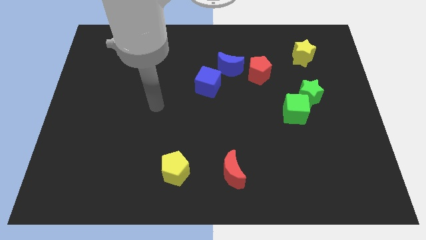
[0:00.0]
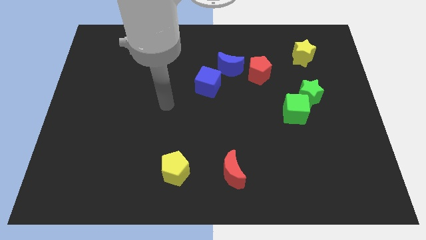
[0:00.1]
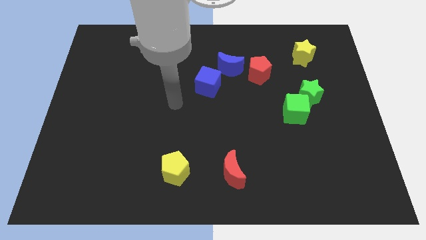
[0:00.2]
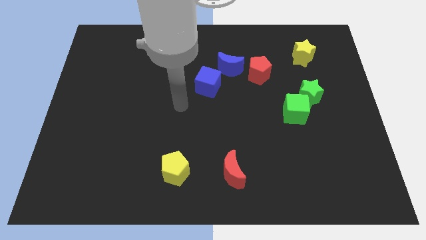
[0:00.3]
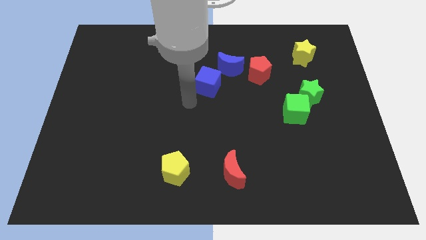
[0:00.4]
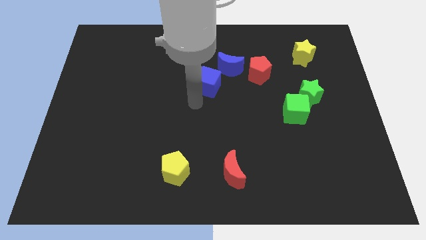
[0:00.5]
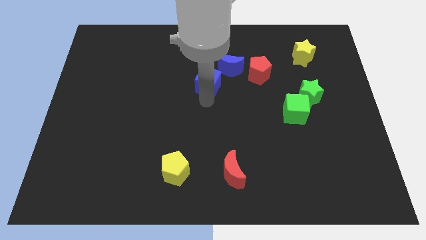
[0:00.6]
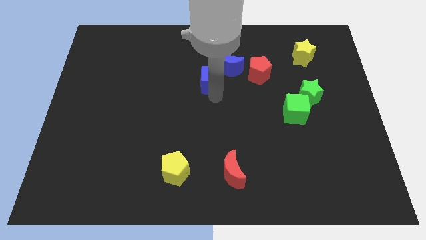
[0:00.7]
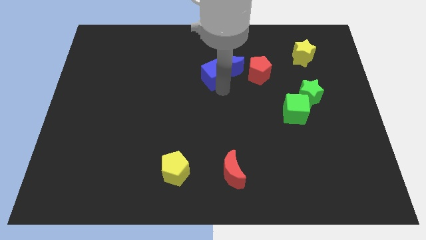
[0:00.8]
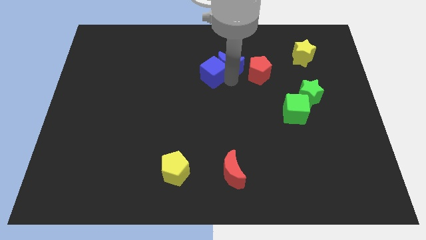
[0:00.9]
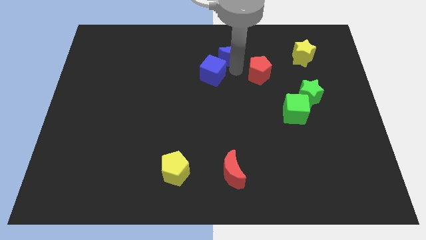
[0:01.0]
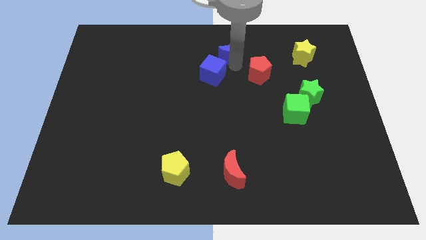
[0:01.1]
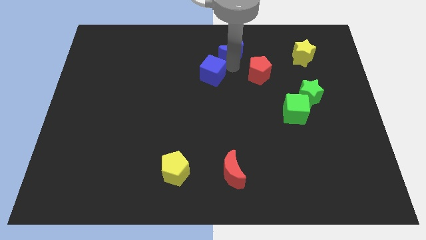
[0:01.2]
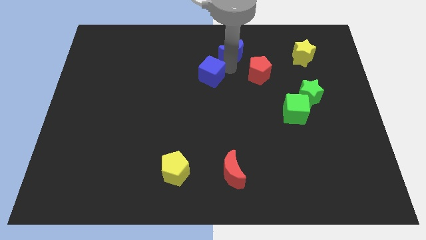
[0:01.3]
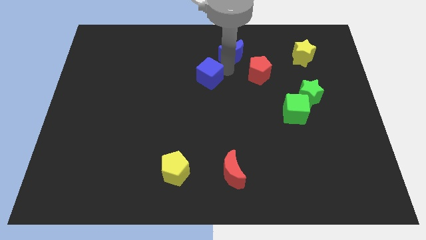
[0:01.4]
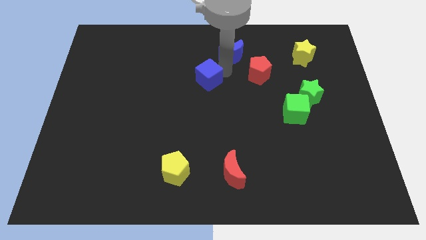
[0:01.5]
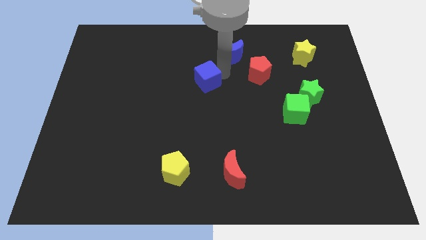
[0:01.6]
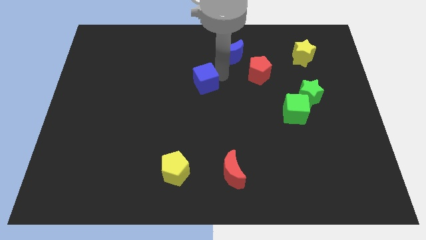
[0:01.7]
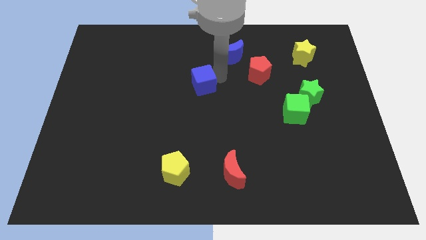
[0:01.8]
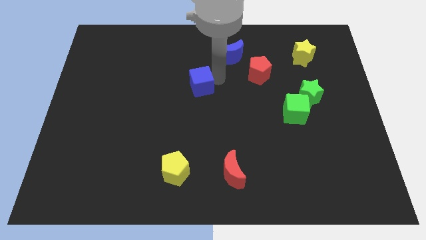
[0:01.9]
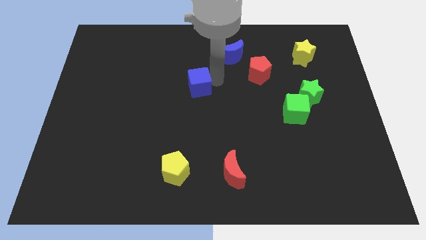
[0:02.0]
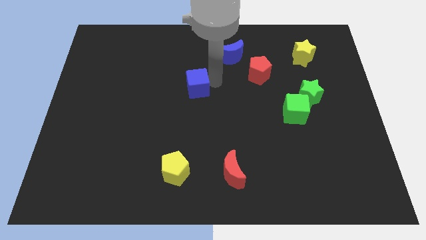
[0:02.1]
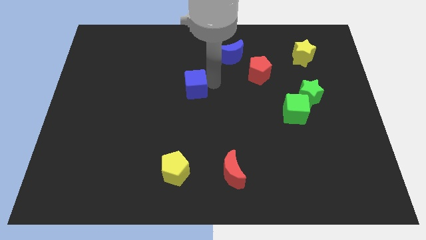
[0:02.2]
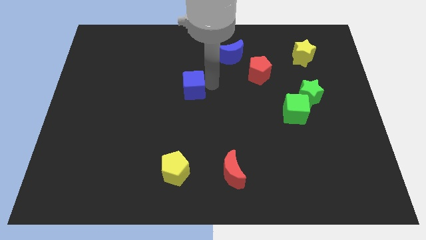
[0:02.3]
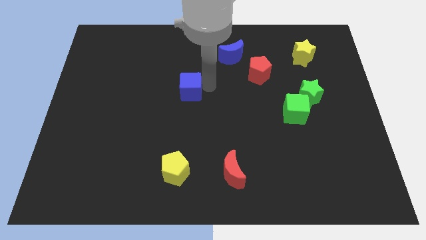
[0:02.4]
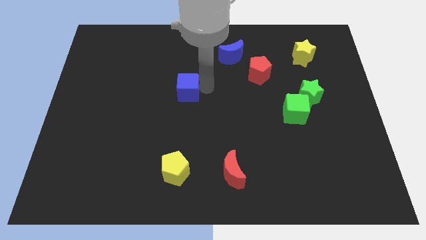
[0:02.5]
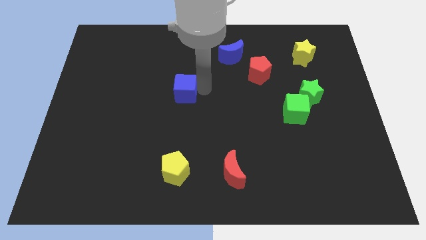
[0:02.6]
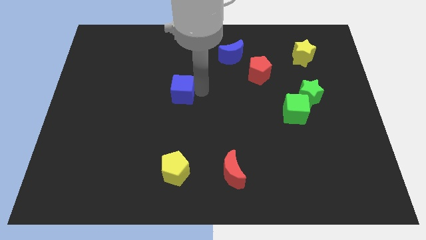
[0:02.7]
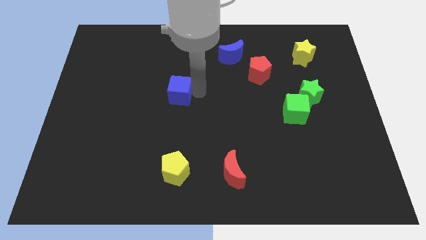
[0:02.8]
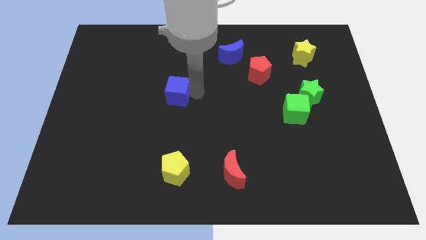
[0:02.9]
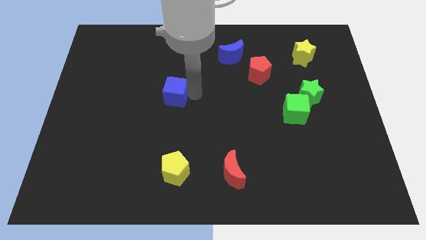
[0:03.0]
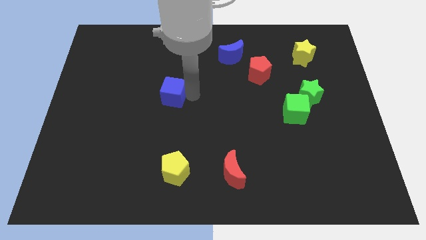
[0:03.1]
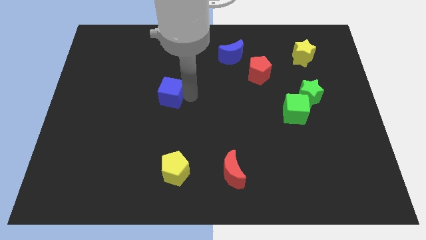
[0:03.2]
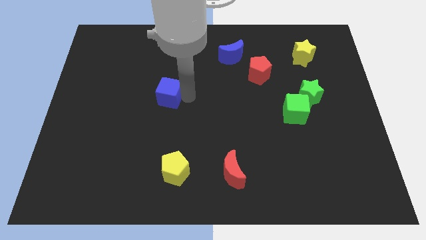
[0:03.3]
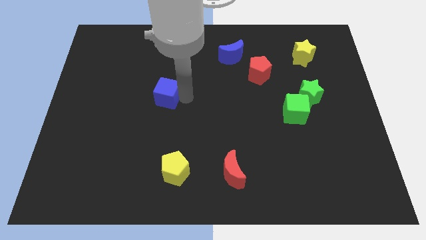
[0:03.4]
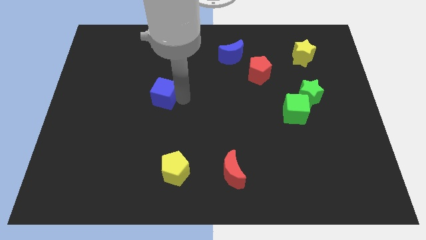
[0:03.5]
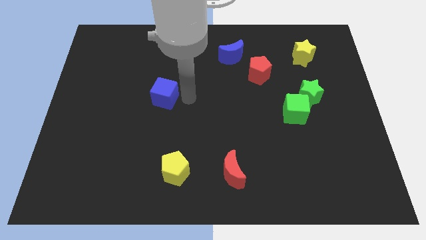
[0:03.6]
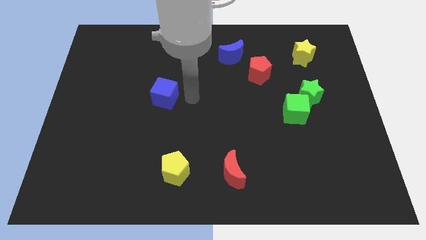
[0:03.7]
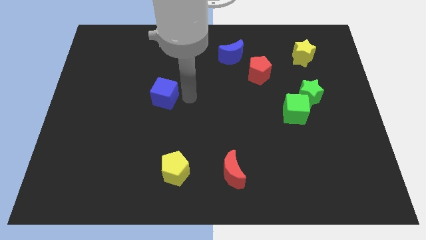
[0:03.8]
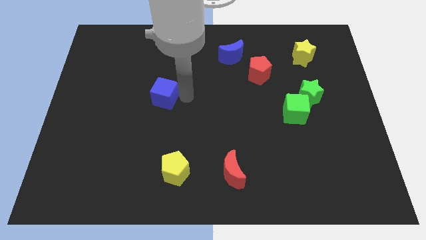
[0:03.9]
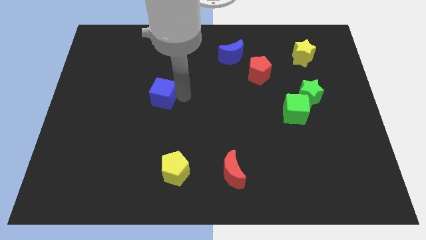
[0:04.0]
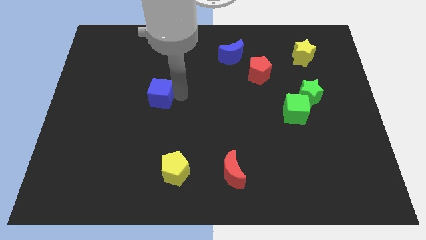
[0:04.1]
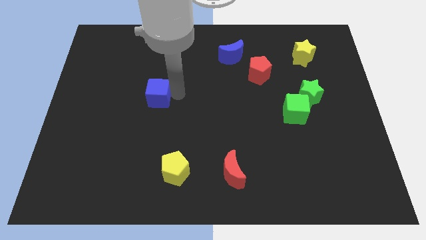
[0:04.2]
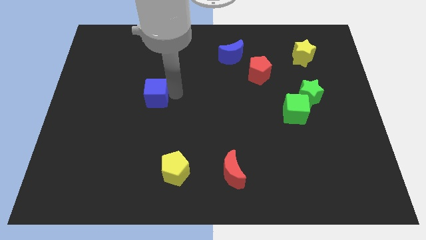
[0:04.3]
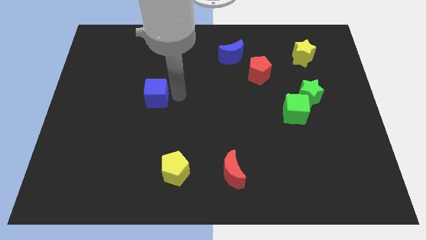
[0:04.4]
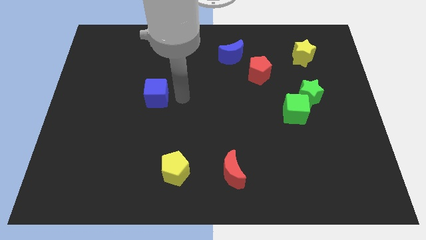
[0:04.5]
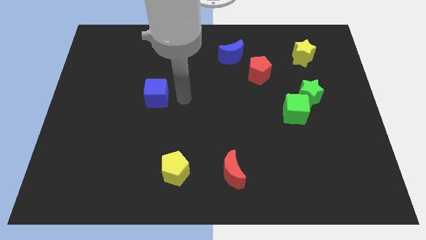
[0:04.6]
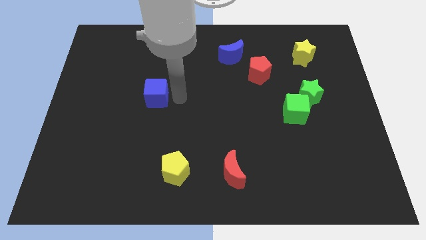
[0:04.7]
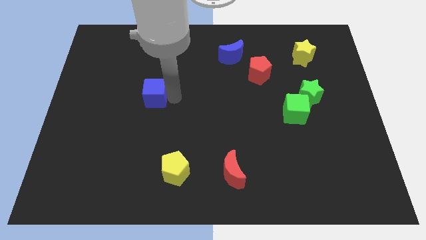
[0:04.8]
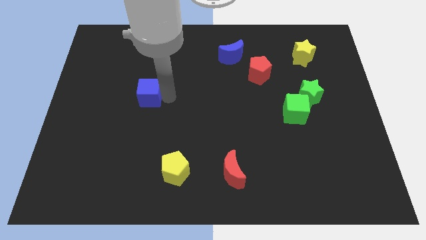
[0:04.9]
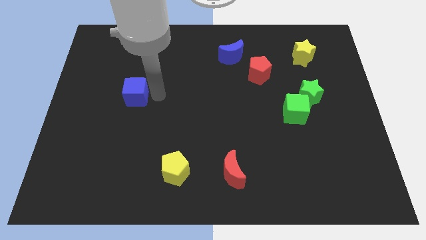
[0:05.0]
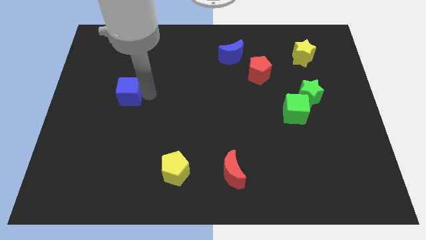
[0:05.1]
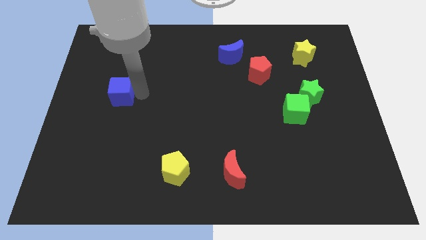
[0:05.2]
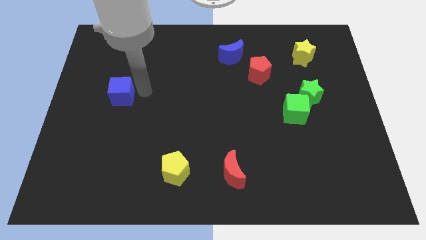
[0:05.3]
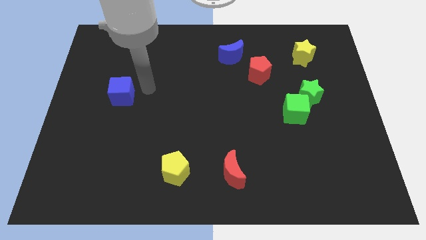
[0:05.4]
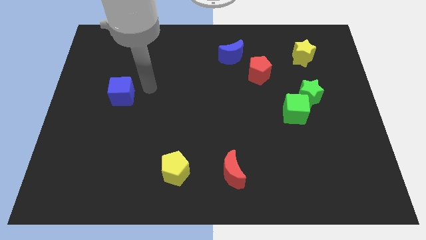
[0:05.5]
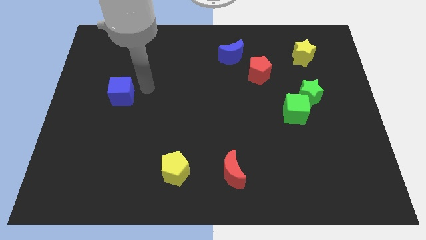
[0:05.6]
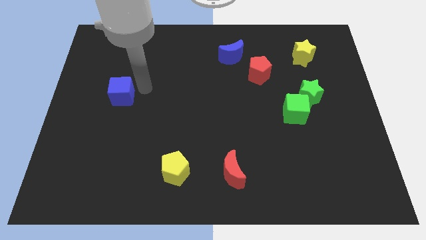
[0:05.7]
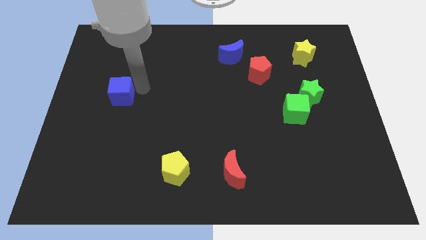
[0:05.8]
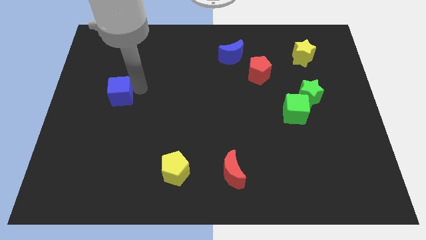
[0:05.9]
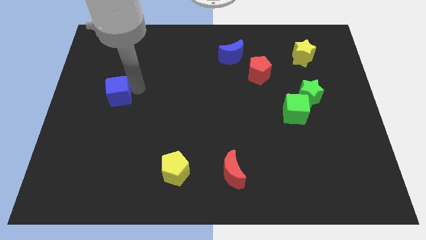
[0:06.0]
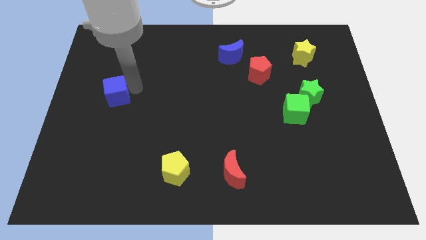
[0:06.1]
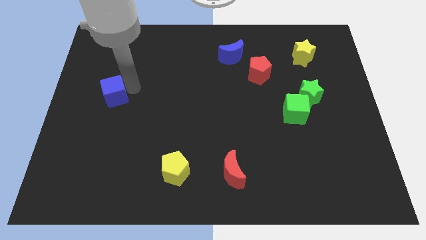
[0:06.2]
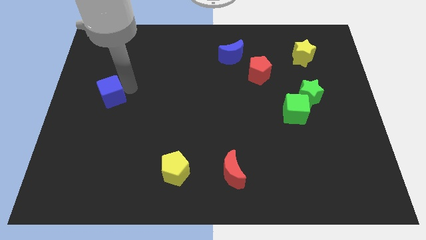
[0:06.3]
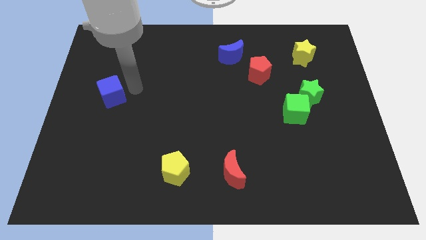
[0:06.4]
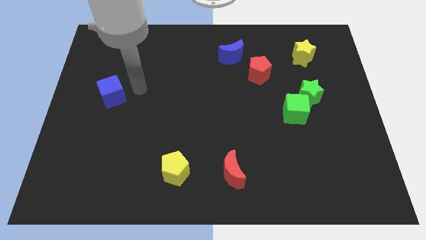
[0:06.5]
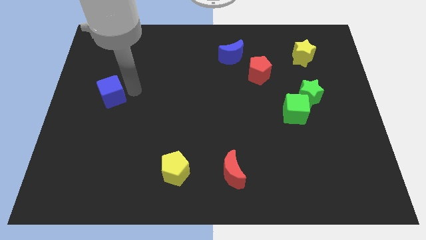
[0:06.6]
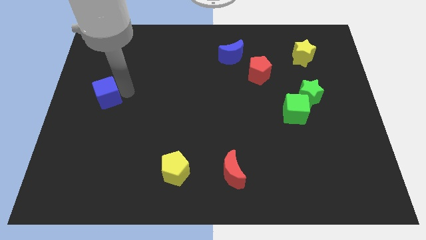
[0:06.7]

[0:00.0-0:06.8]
slide the blue cube to the left side
